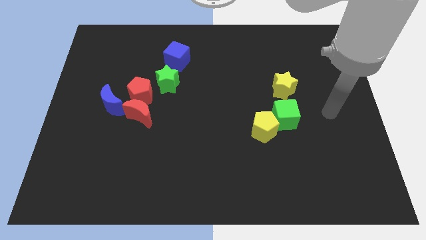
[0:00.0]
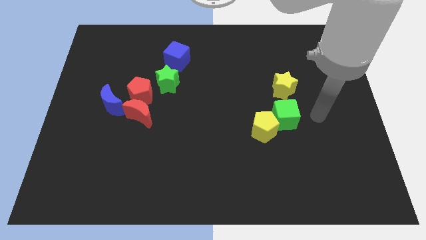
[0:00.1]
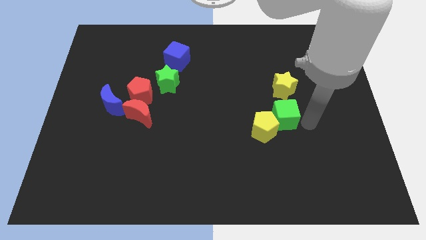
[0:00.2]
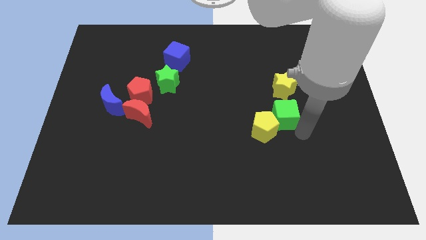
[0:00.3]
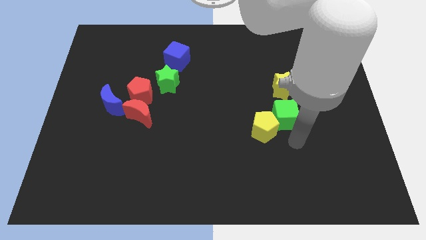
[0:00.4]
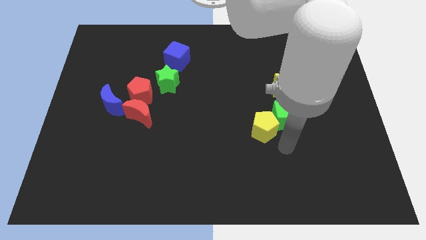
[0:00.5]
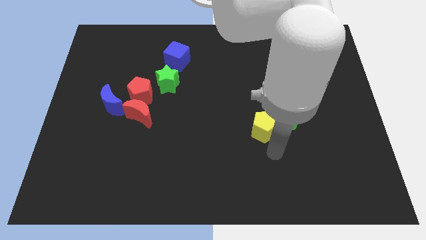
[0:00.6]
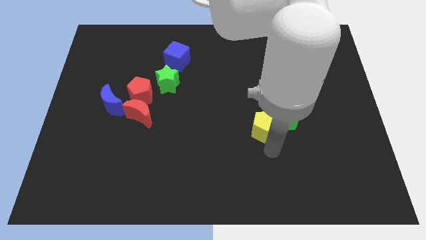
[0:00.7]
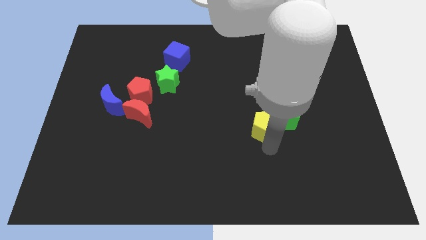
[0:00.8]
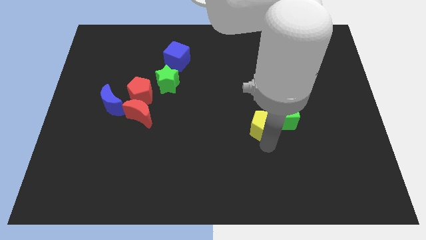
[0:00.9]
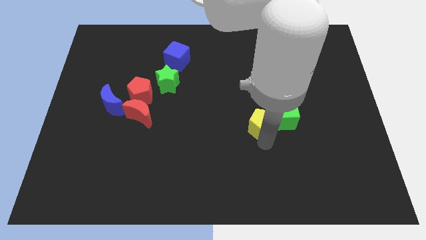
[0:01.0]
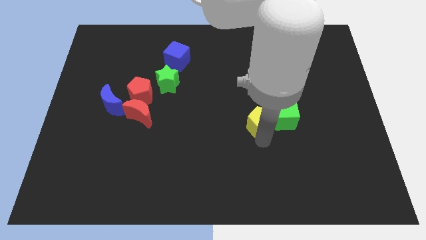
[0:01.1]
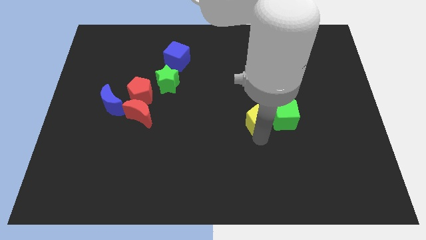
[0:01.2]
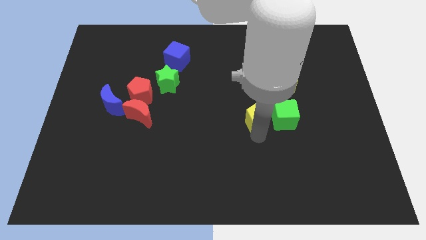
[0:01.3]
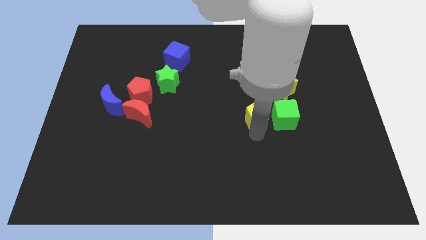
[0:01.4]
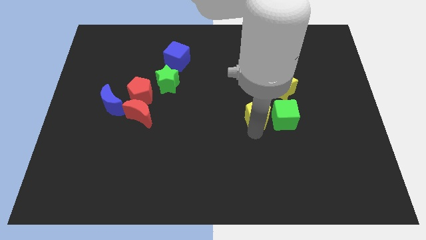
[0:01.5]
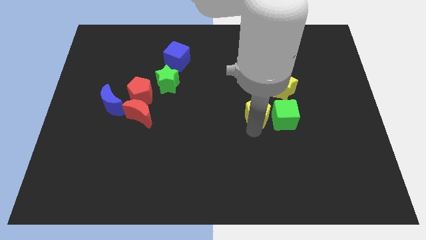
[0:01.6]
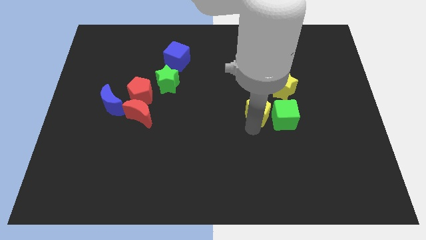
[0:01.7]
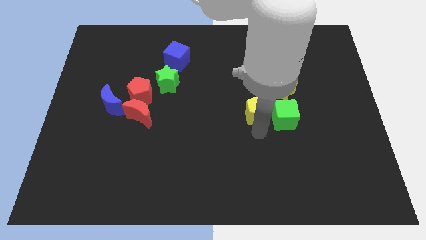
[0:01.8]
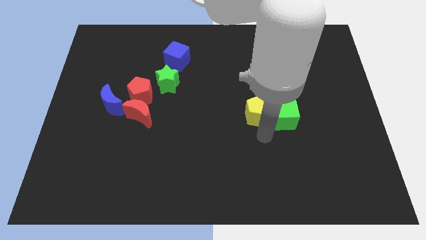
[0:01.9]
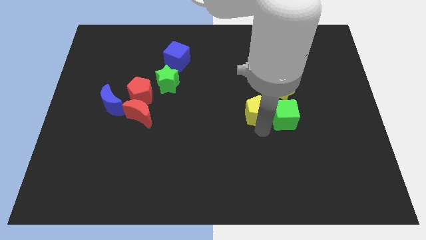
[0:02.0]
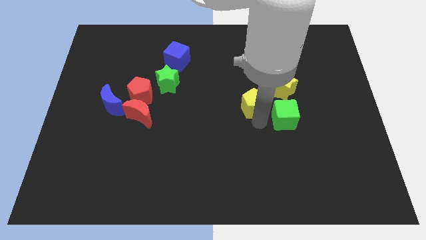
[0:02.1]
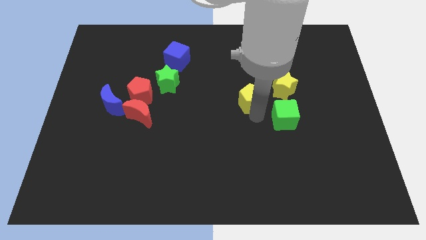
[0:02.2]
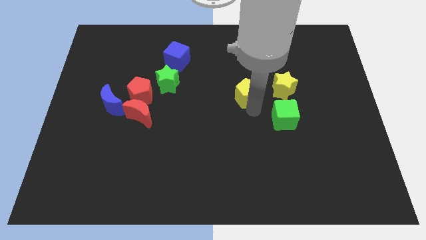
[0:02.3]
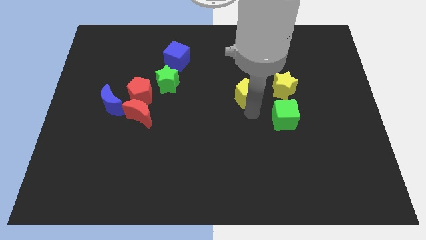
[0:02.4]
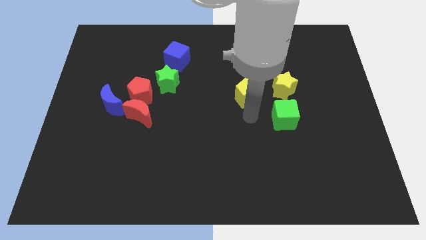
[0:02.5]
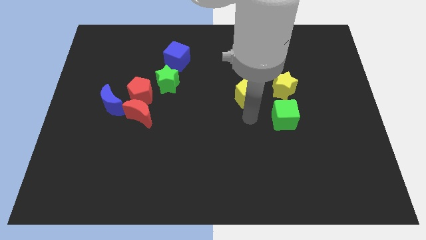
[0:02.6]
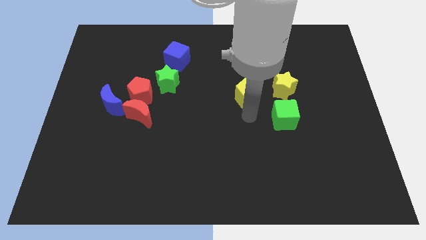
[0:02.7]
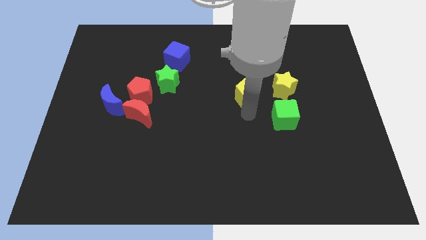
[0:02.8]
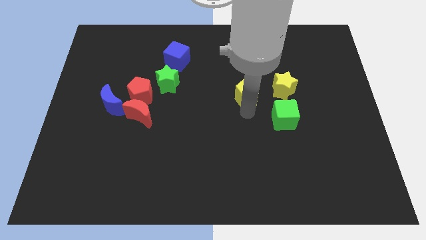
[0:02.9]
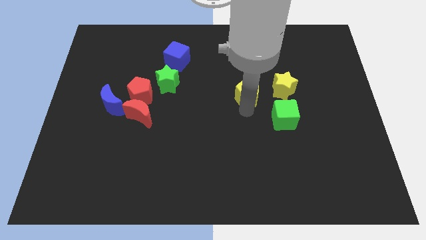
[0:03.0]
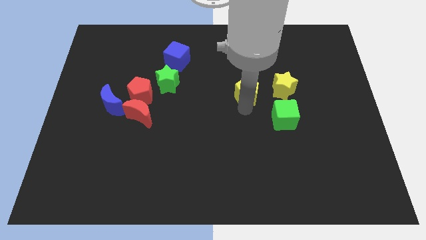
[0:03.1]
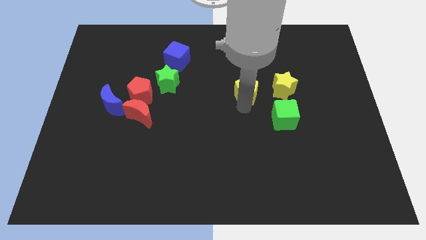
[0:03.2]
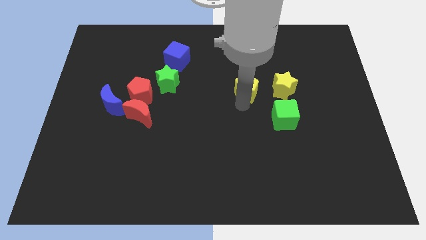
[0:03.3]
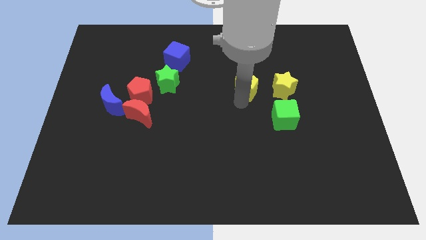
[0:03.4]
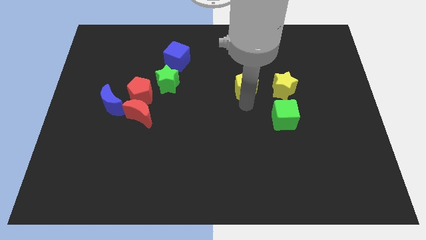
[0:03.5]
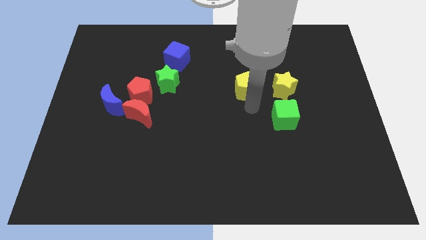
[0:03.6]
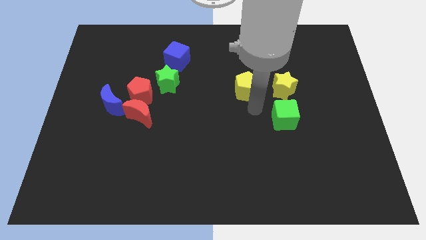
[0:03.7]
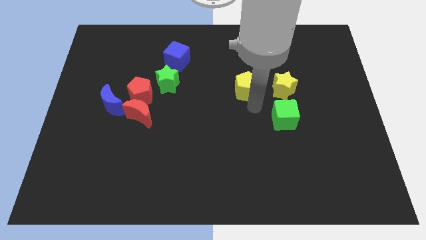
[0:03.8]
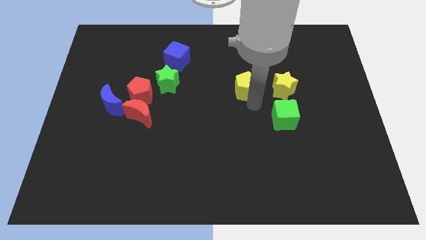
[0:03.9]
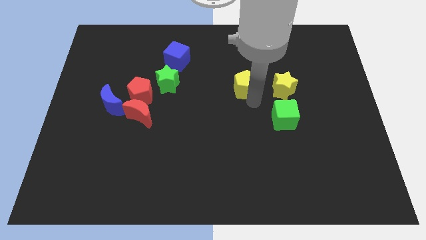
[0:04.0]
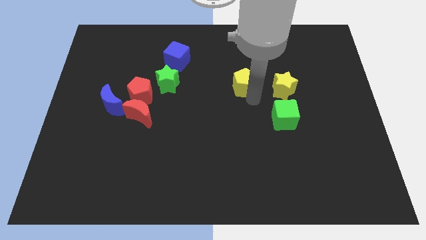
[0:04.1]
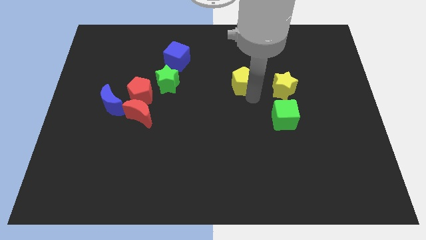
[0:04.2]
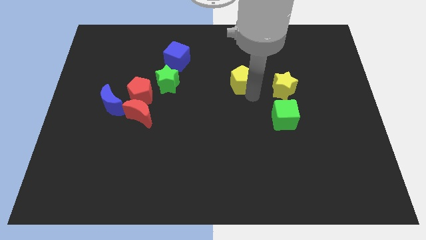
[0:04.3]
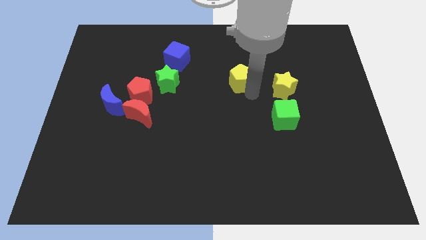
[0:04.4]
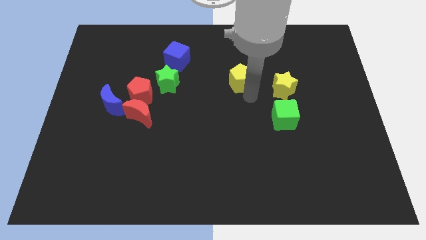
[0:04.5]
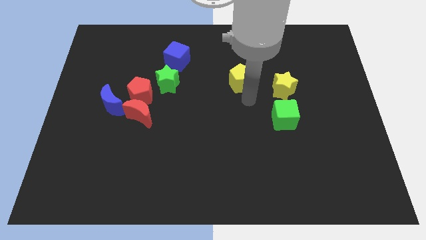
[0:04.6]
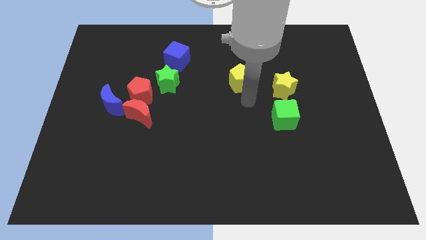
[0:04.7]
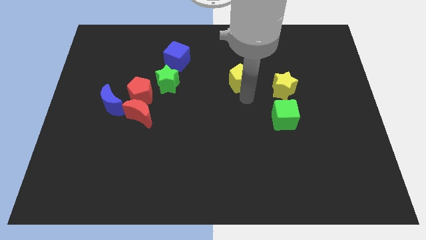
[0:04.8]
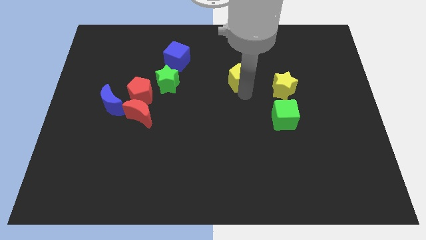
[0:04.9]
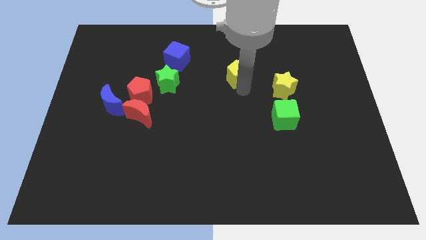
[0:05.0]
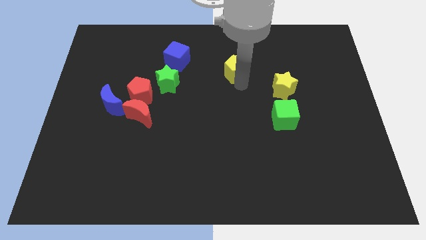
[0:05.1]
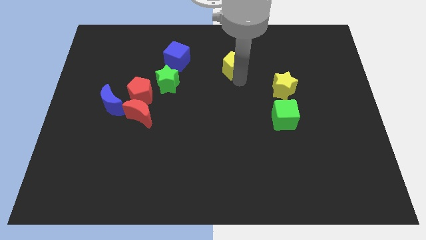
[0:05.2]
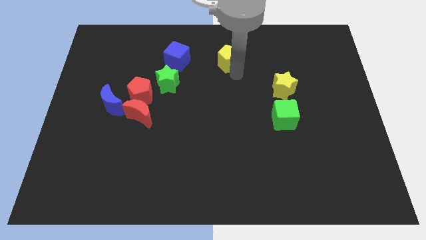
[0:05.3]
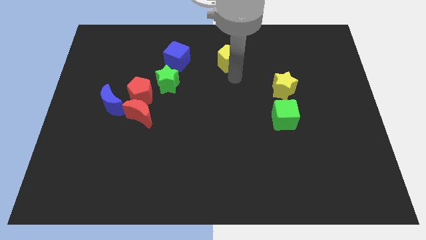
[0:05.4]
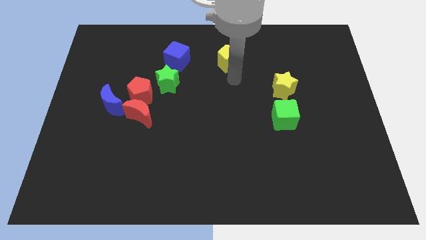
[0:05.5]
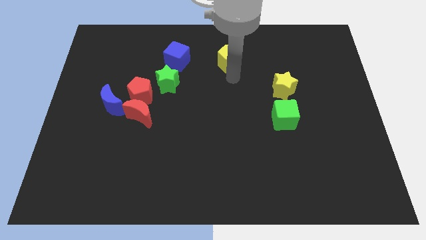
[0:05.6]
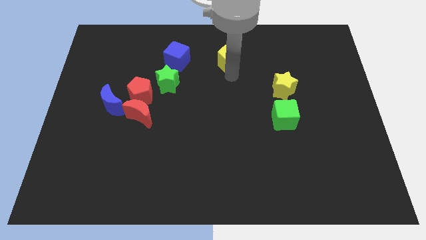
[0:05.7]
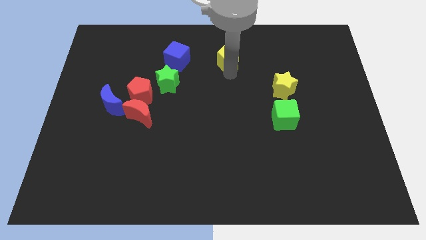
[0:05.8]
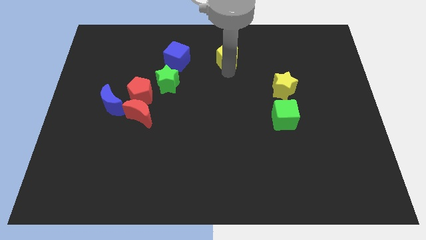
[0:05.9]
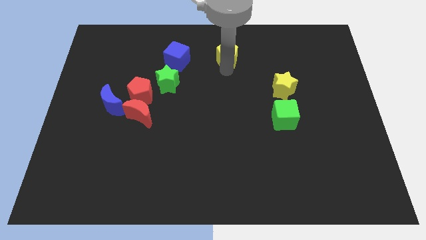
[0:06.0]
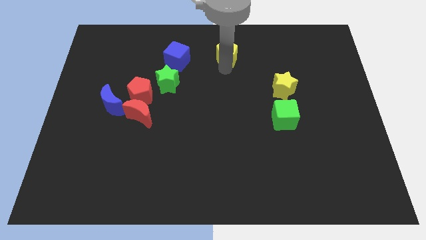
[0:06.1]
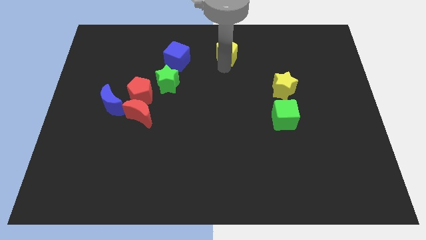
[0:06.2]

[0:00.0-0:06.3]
move the yellow pentagon to the top
